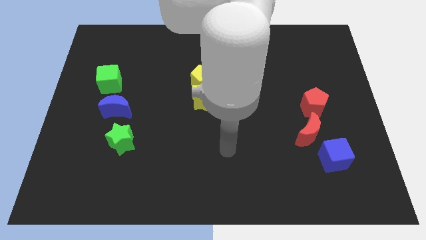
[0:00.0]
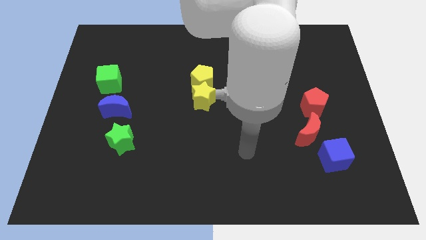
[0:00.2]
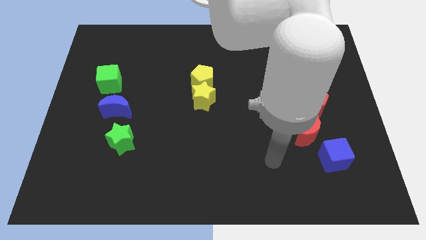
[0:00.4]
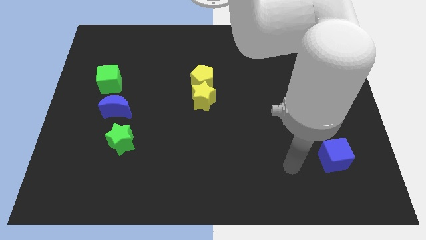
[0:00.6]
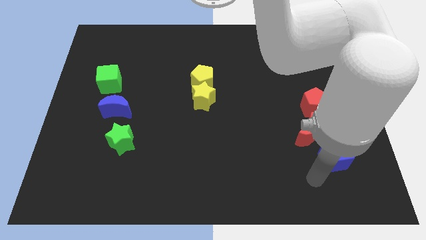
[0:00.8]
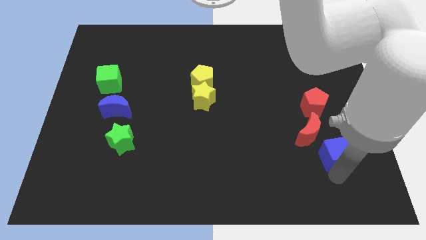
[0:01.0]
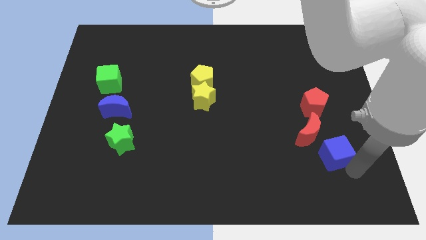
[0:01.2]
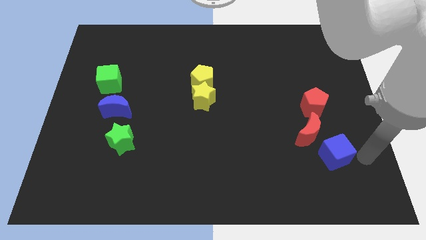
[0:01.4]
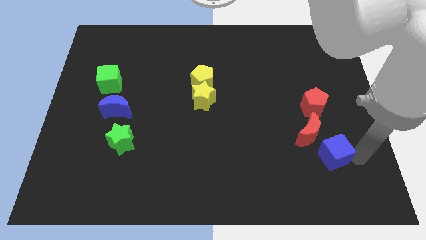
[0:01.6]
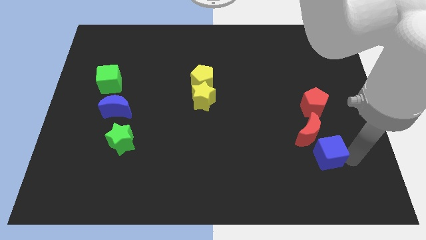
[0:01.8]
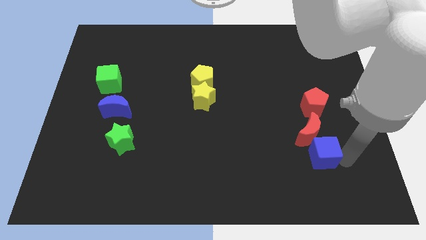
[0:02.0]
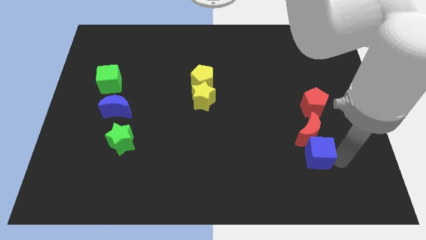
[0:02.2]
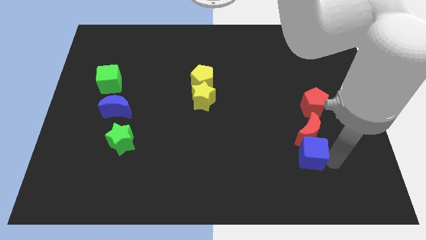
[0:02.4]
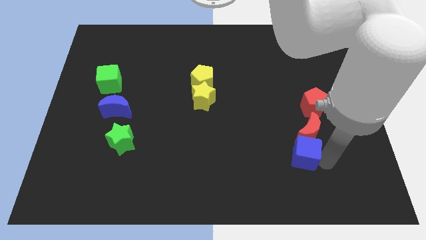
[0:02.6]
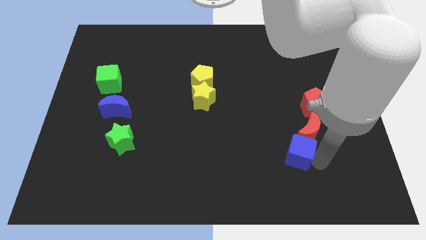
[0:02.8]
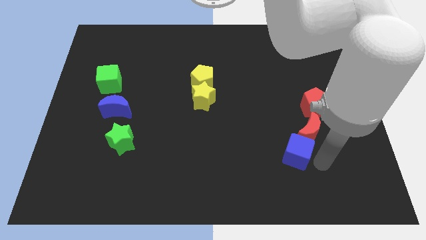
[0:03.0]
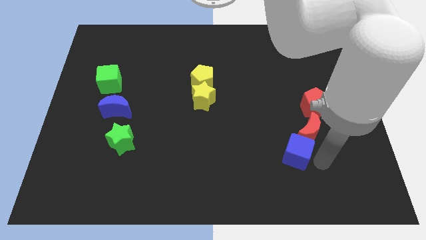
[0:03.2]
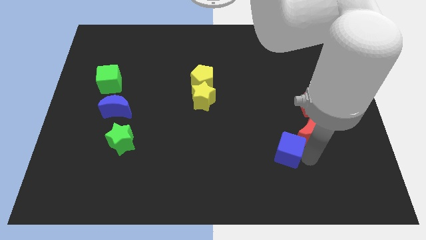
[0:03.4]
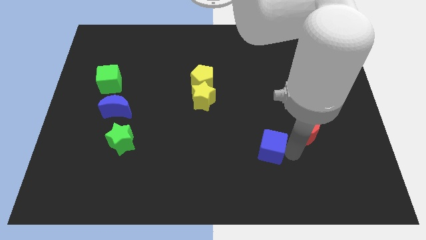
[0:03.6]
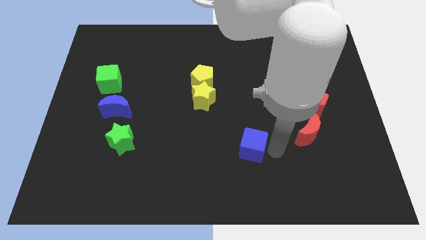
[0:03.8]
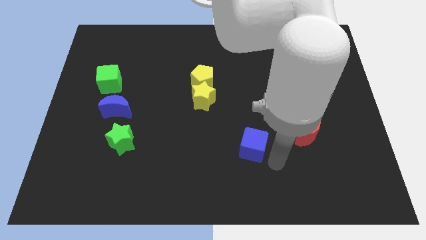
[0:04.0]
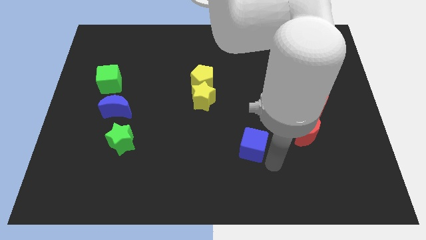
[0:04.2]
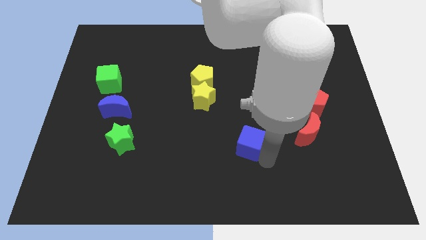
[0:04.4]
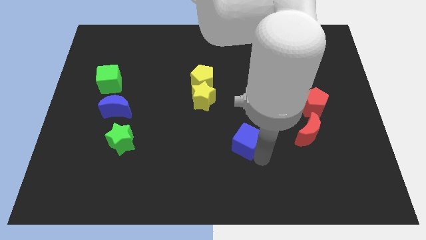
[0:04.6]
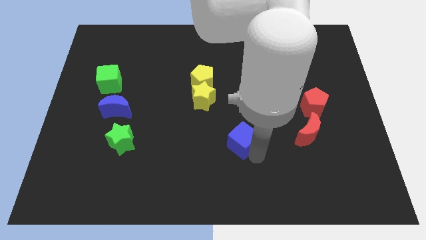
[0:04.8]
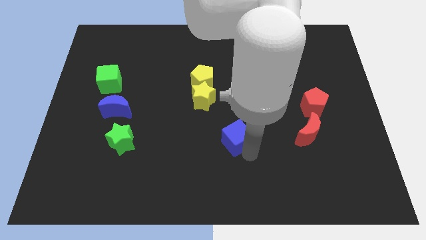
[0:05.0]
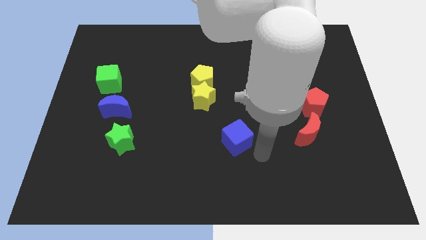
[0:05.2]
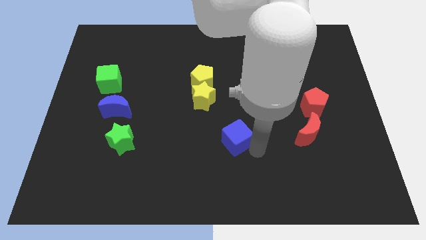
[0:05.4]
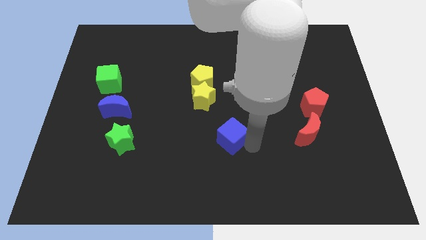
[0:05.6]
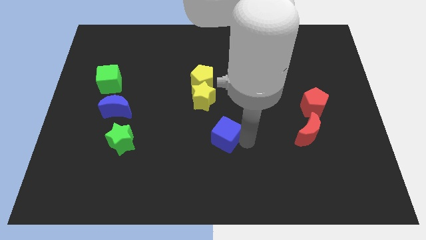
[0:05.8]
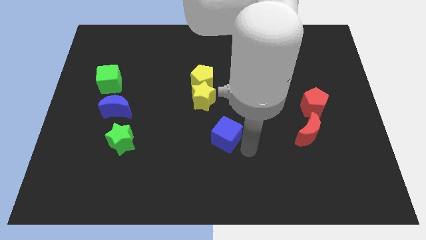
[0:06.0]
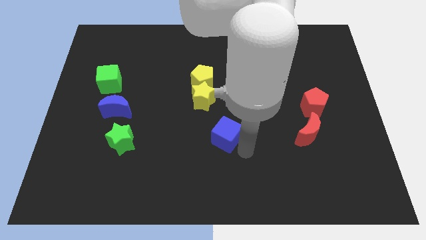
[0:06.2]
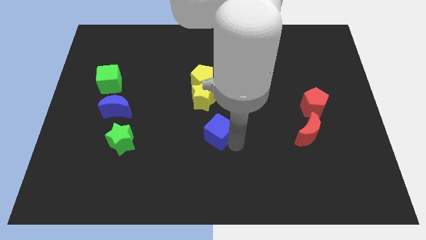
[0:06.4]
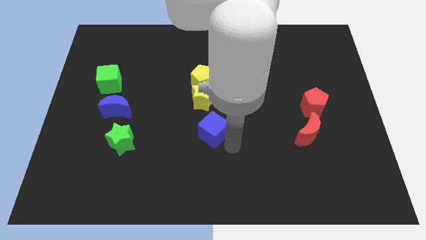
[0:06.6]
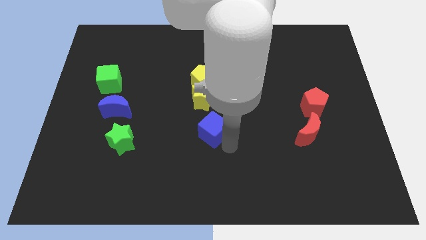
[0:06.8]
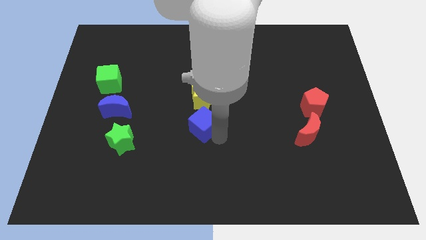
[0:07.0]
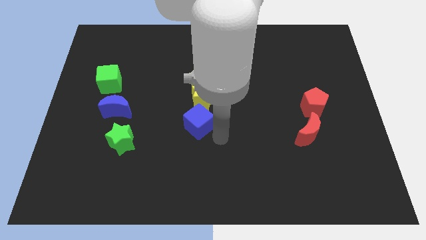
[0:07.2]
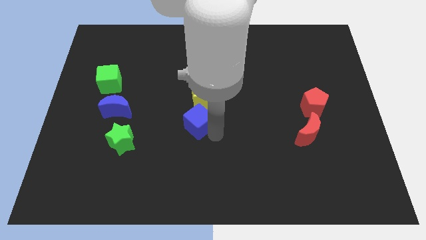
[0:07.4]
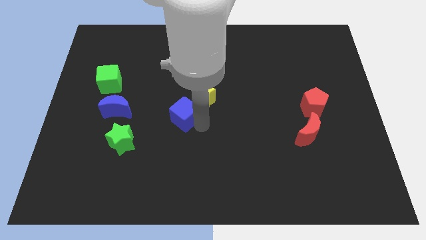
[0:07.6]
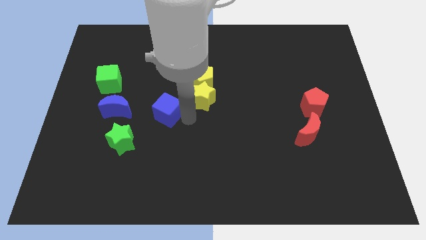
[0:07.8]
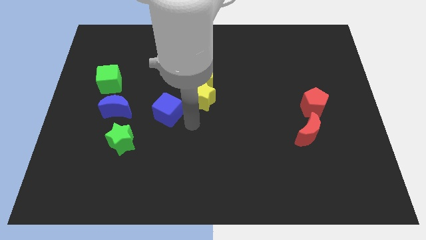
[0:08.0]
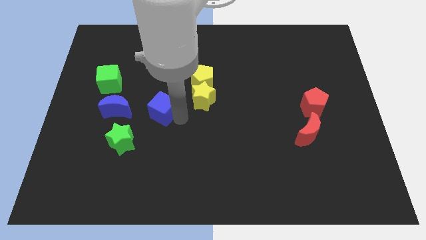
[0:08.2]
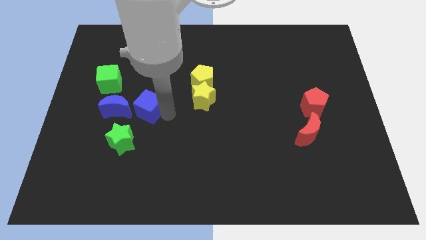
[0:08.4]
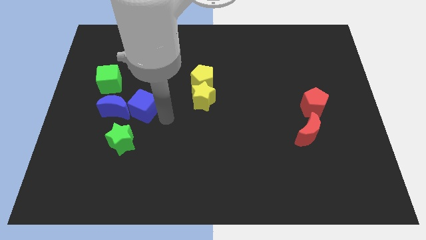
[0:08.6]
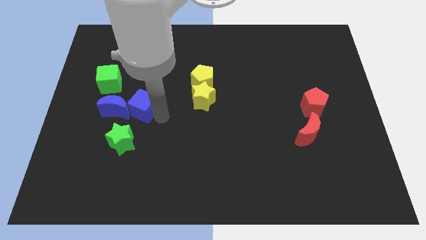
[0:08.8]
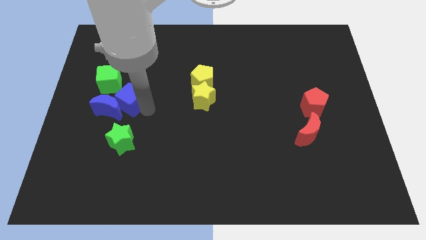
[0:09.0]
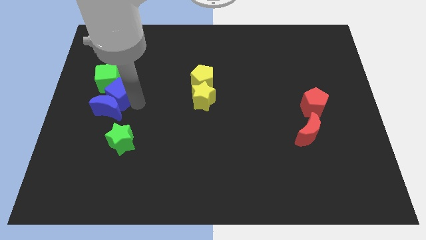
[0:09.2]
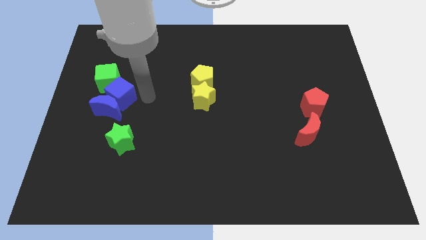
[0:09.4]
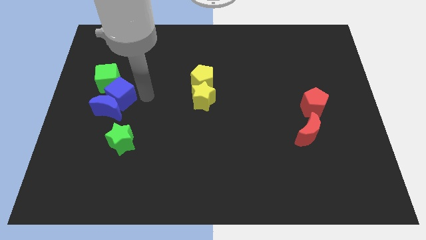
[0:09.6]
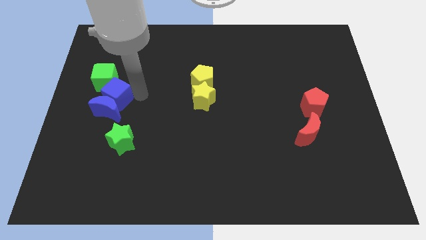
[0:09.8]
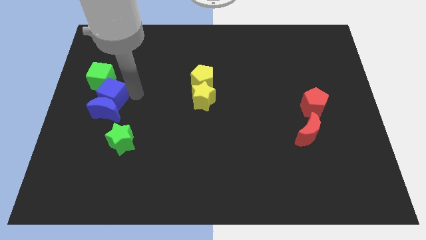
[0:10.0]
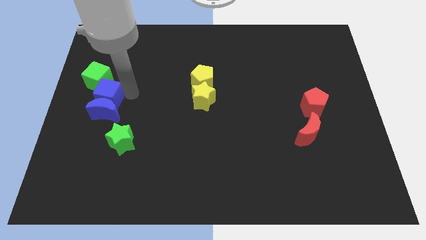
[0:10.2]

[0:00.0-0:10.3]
push the blue cube to the left side

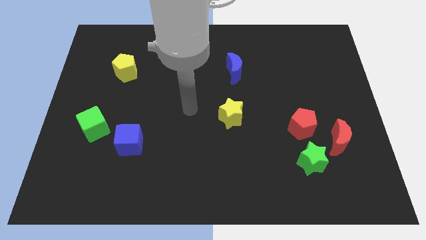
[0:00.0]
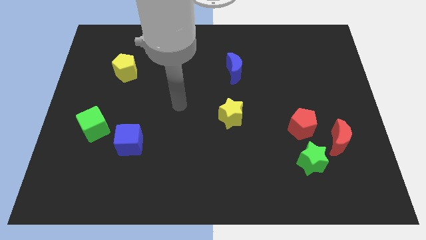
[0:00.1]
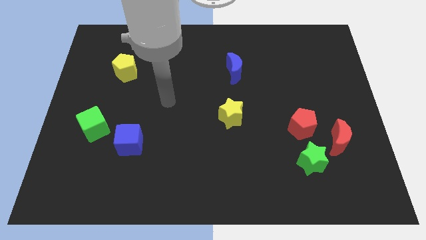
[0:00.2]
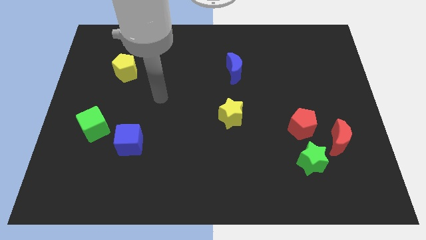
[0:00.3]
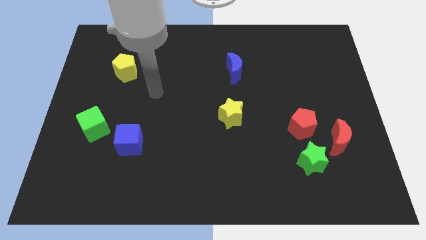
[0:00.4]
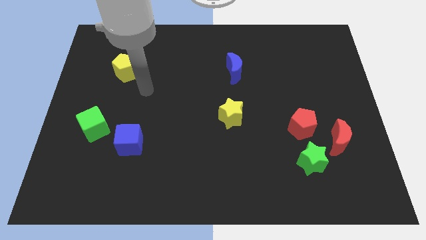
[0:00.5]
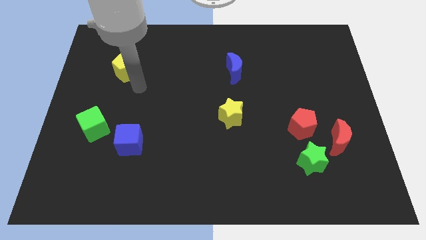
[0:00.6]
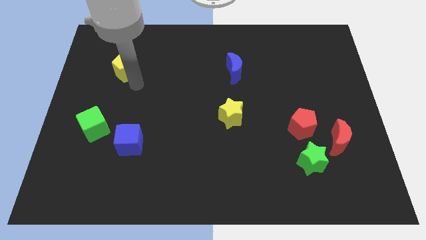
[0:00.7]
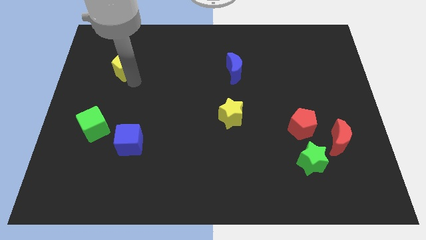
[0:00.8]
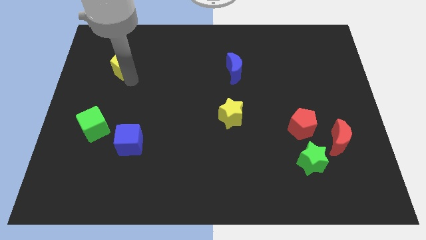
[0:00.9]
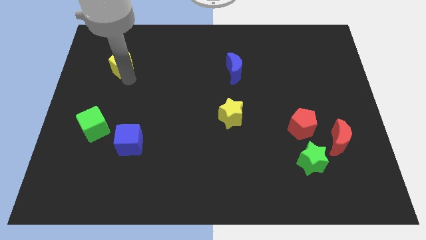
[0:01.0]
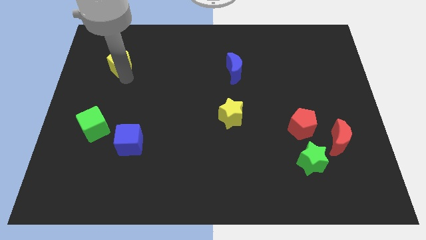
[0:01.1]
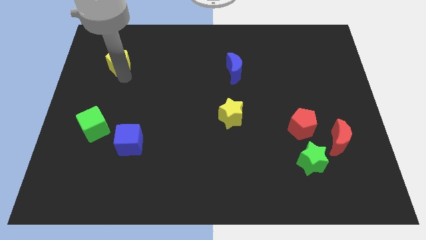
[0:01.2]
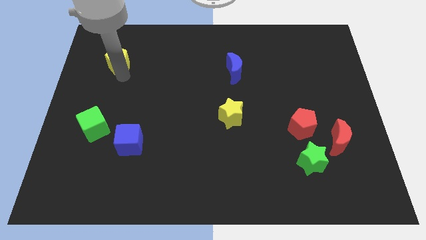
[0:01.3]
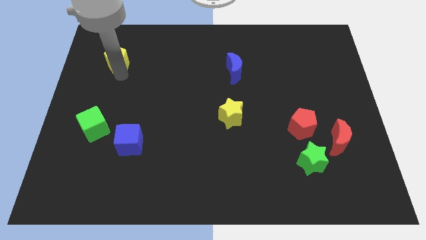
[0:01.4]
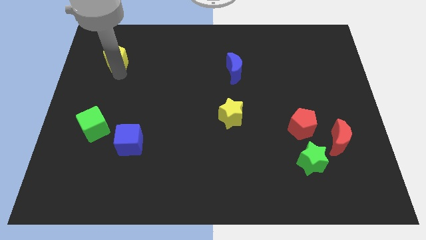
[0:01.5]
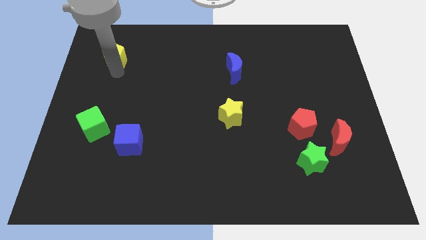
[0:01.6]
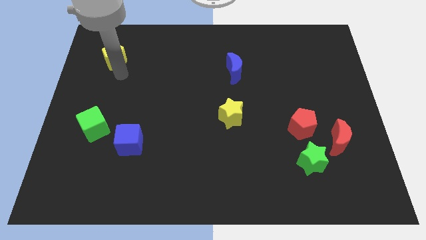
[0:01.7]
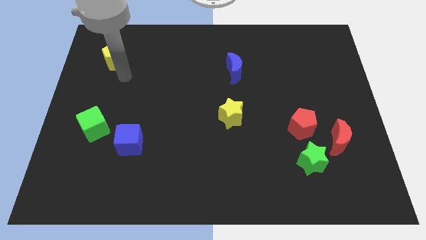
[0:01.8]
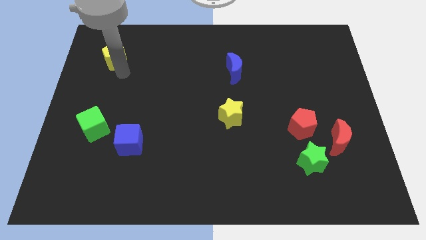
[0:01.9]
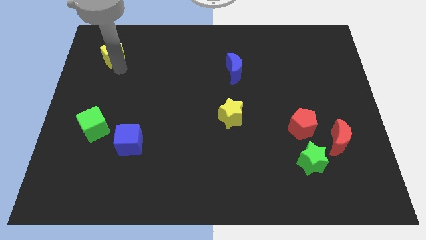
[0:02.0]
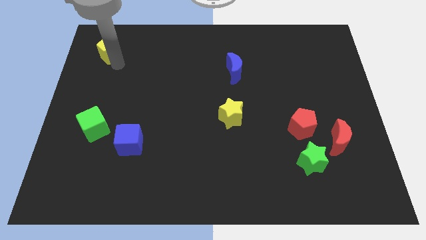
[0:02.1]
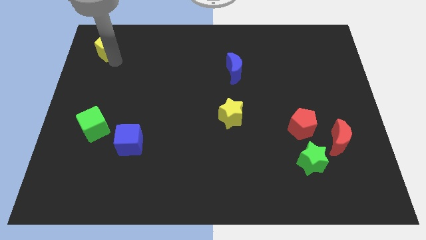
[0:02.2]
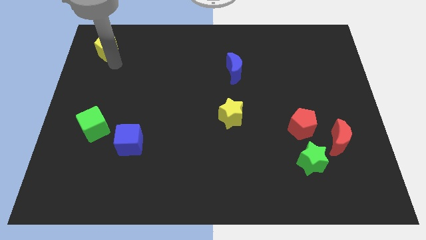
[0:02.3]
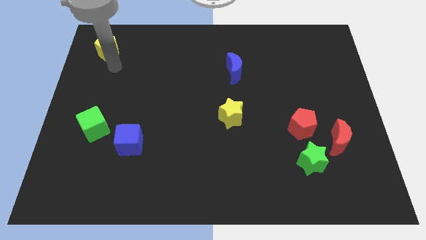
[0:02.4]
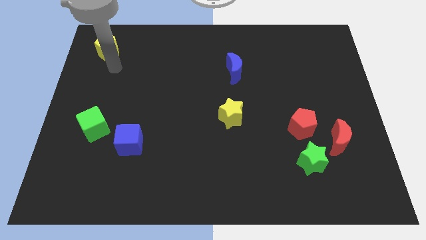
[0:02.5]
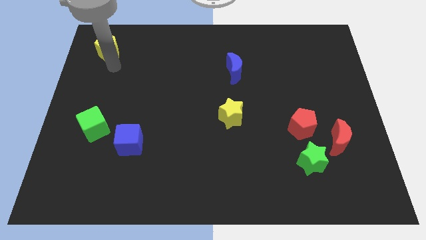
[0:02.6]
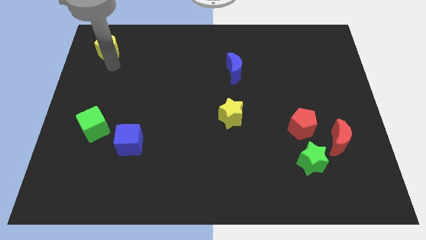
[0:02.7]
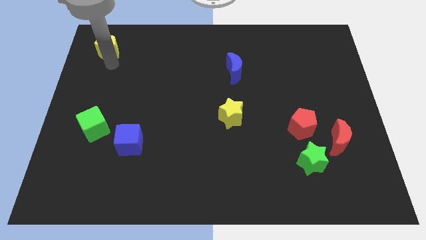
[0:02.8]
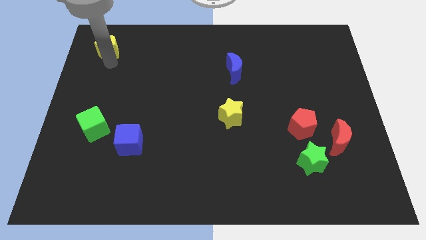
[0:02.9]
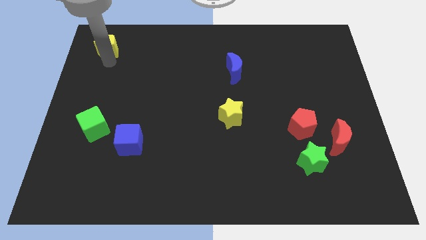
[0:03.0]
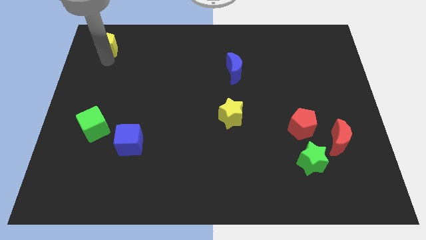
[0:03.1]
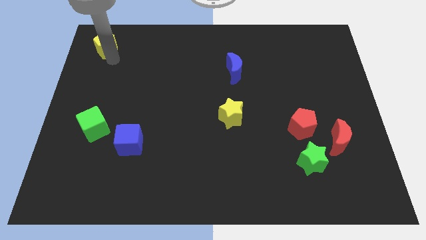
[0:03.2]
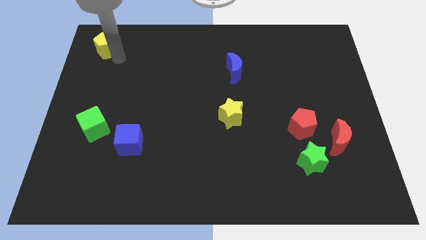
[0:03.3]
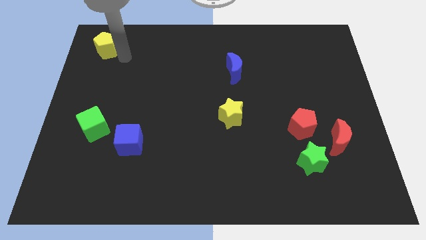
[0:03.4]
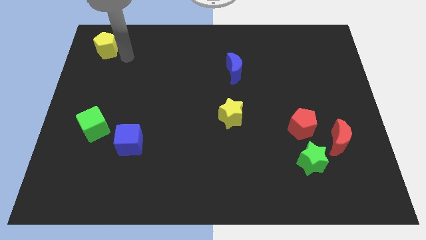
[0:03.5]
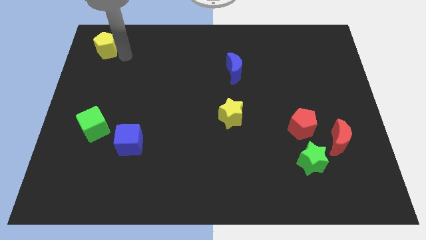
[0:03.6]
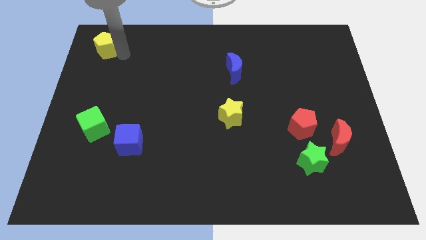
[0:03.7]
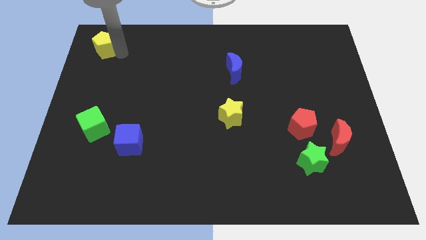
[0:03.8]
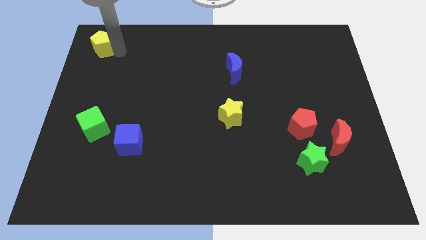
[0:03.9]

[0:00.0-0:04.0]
slide the yellow pentagon to the top left
